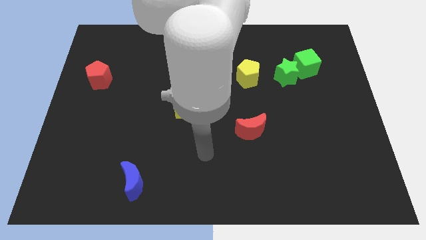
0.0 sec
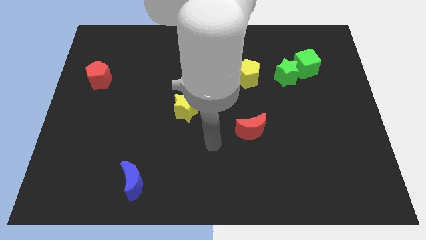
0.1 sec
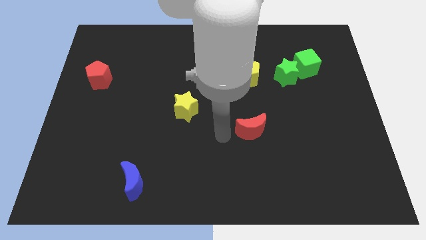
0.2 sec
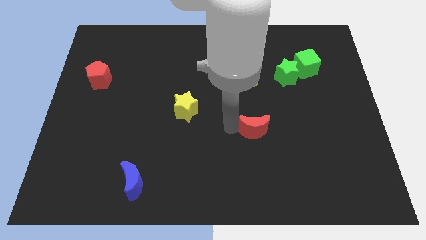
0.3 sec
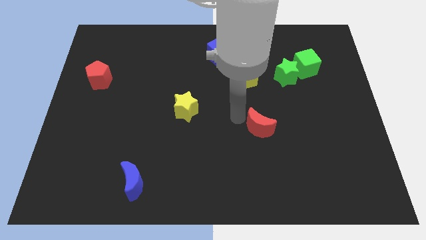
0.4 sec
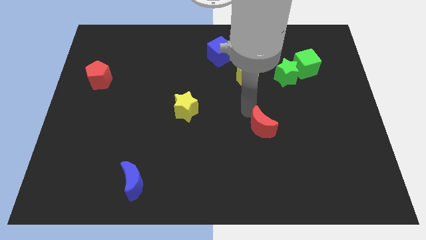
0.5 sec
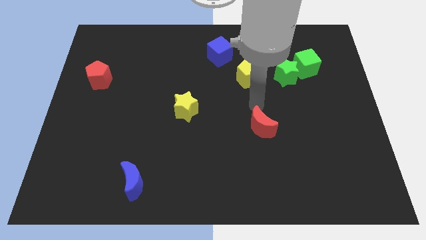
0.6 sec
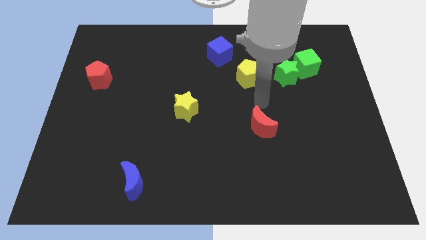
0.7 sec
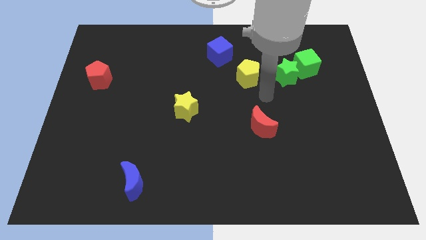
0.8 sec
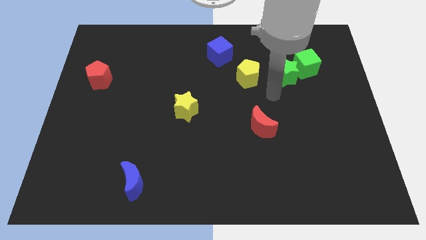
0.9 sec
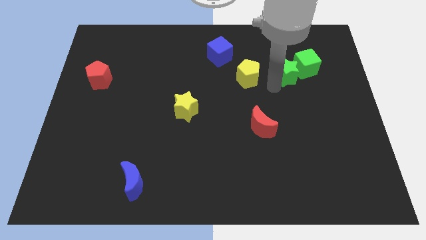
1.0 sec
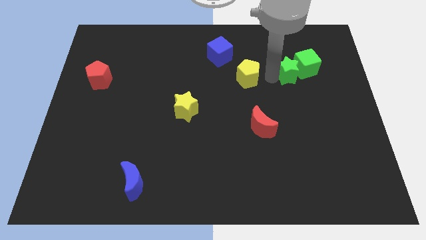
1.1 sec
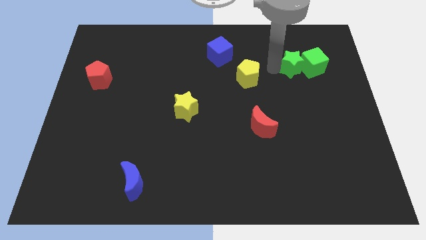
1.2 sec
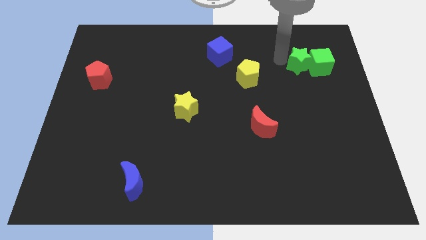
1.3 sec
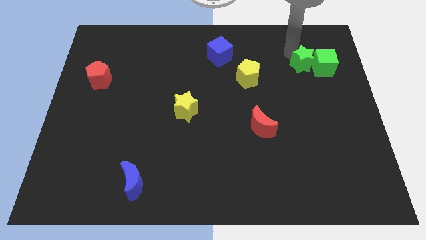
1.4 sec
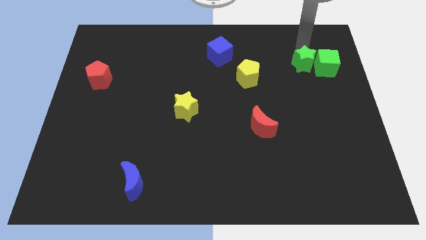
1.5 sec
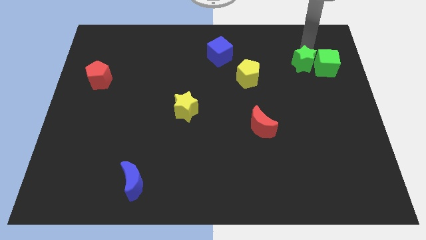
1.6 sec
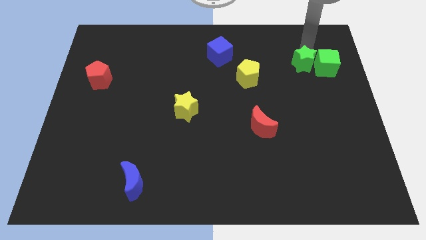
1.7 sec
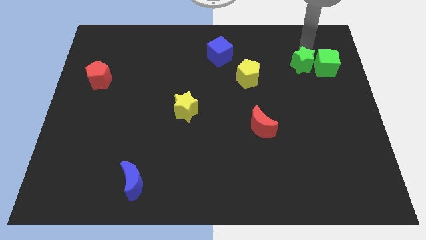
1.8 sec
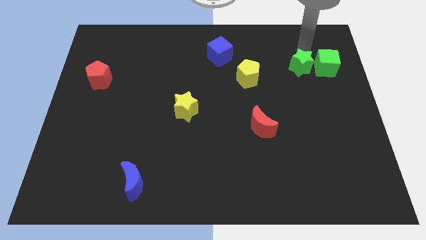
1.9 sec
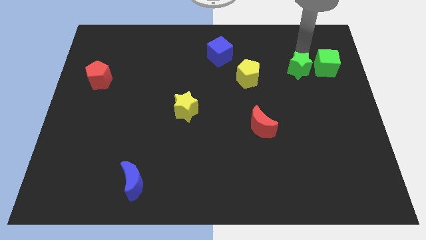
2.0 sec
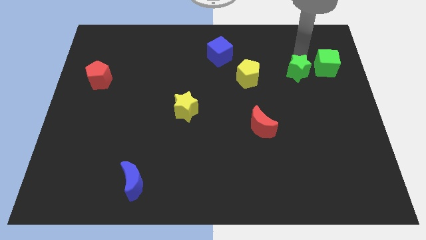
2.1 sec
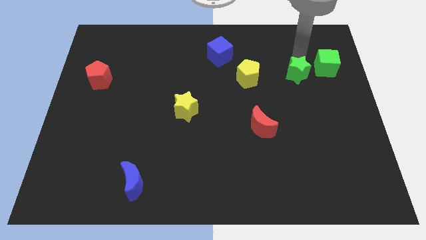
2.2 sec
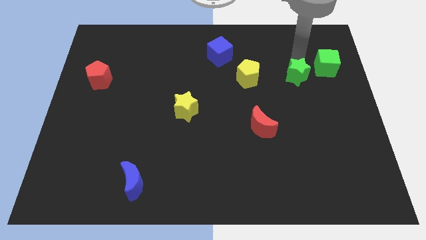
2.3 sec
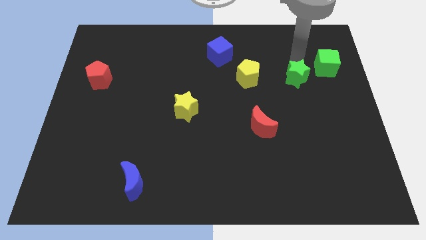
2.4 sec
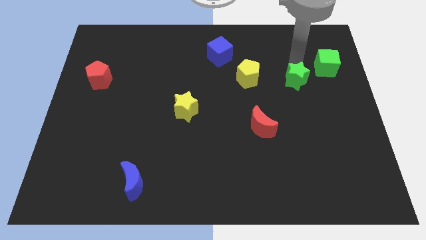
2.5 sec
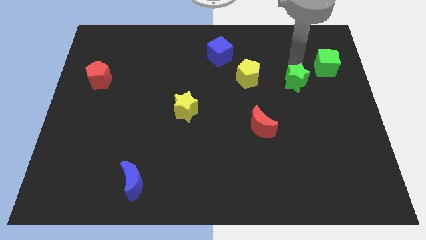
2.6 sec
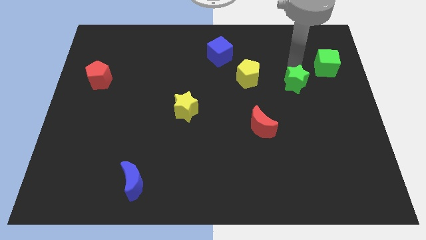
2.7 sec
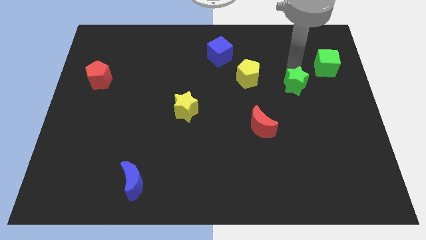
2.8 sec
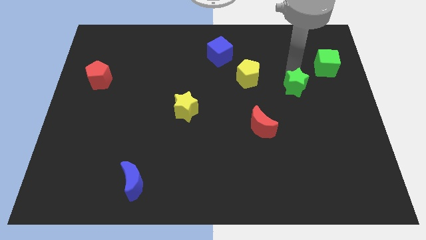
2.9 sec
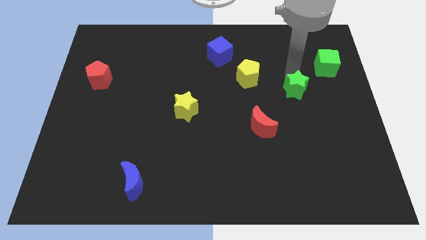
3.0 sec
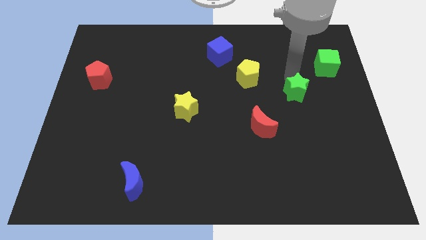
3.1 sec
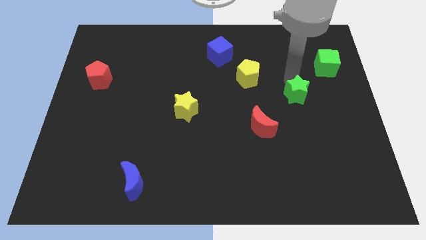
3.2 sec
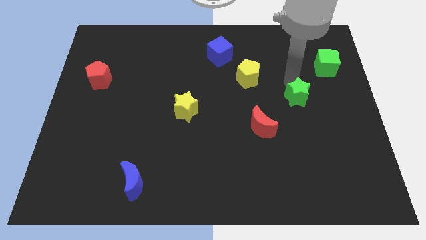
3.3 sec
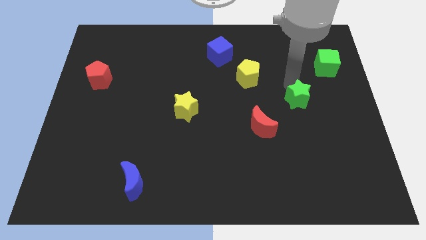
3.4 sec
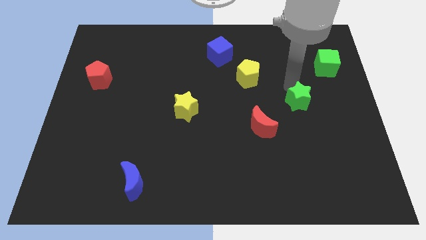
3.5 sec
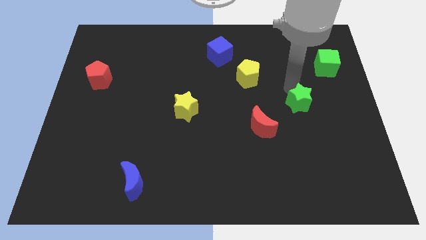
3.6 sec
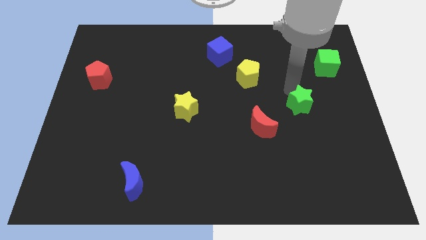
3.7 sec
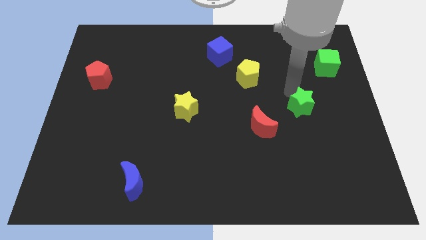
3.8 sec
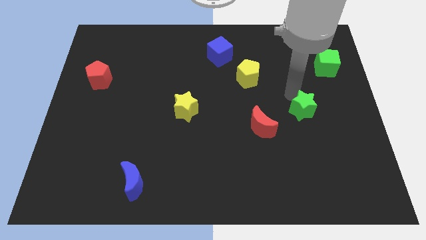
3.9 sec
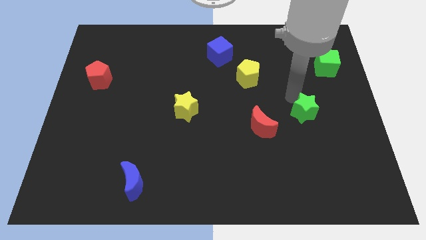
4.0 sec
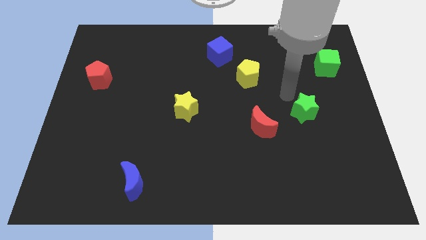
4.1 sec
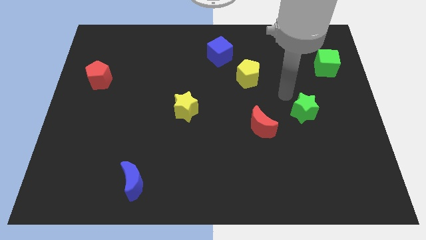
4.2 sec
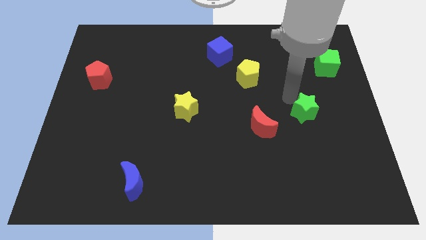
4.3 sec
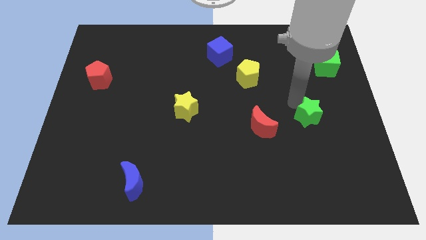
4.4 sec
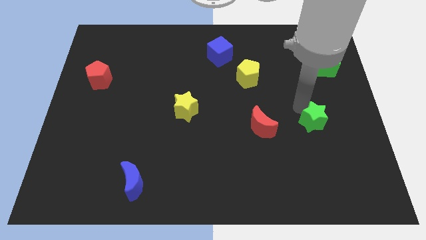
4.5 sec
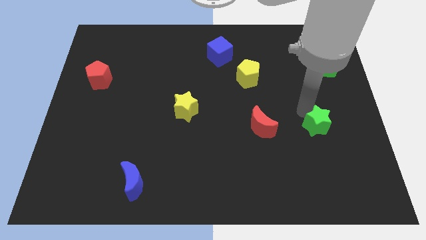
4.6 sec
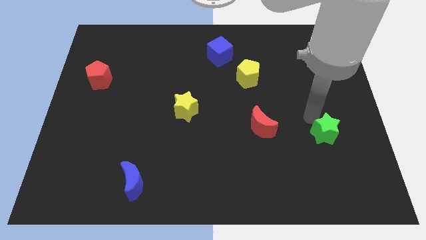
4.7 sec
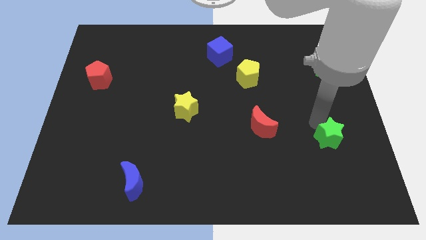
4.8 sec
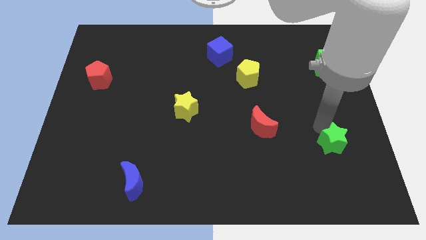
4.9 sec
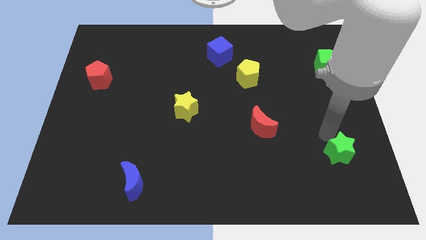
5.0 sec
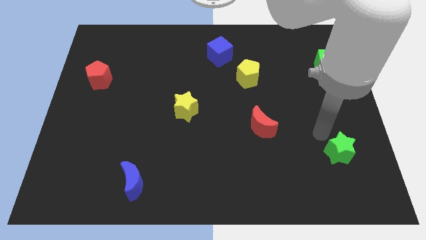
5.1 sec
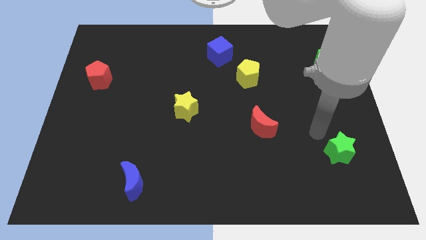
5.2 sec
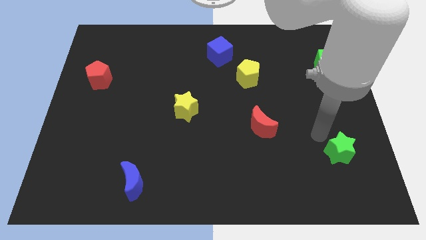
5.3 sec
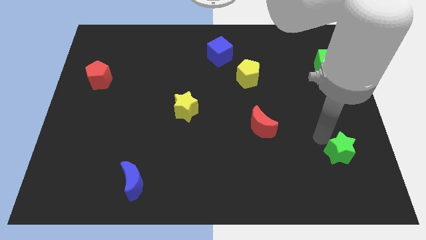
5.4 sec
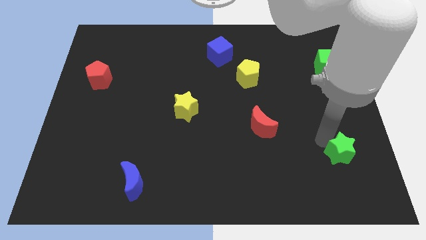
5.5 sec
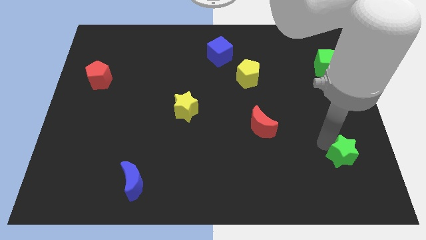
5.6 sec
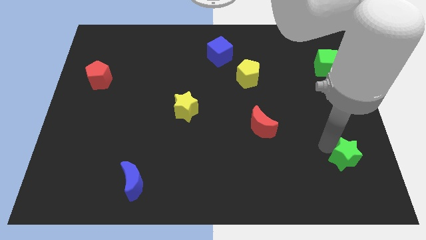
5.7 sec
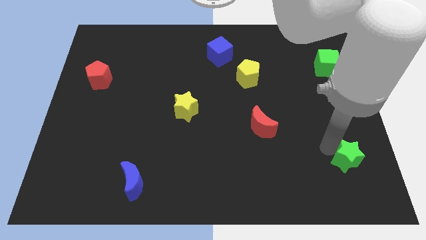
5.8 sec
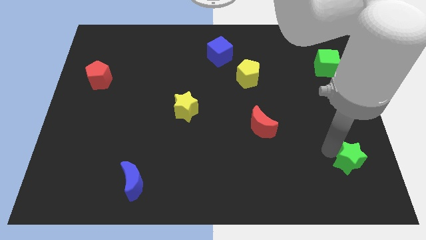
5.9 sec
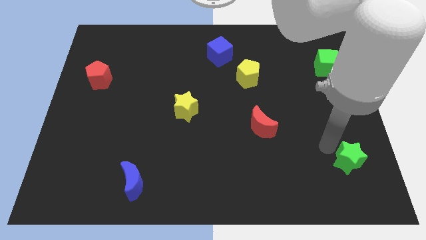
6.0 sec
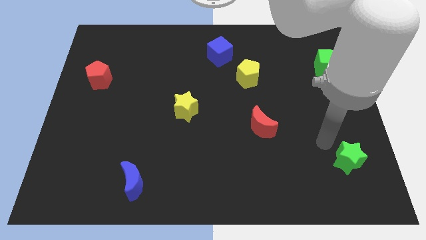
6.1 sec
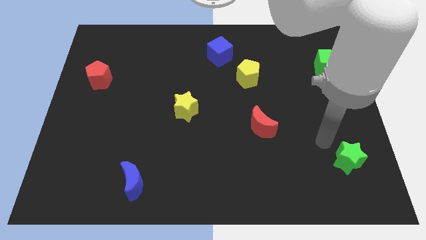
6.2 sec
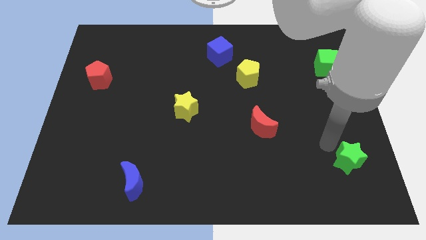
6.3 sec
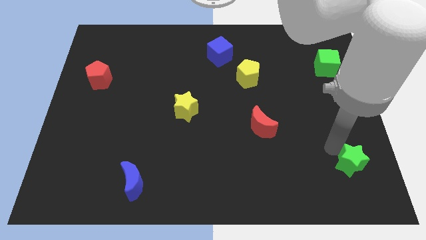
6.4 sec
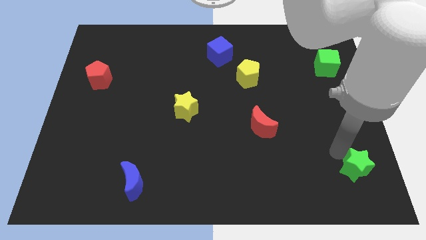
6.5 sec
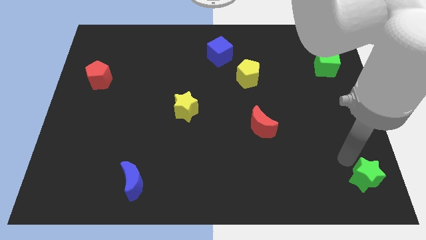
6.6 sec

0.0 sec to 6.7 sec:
slide the green star to the lower right corner
